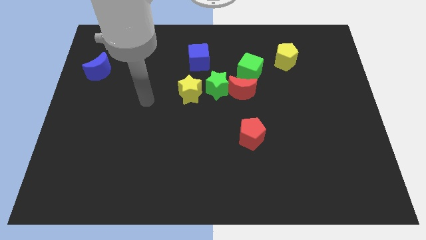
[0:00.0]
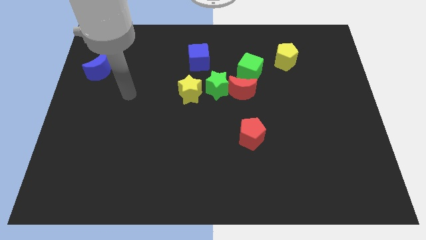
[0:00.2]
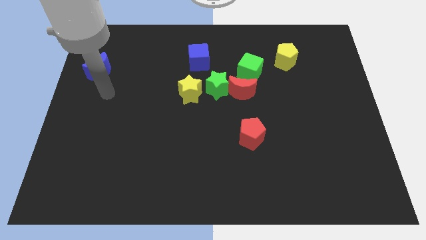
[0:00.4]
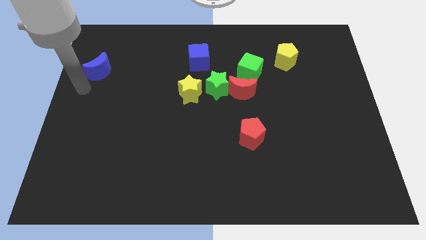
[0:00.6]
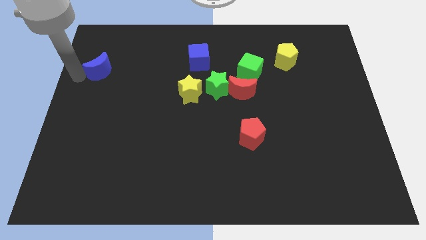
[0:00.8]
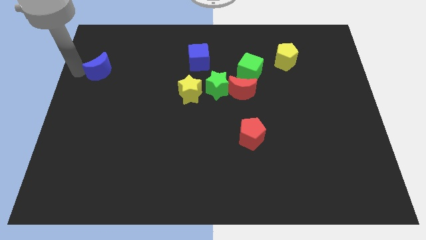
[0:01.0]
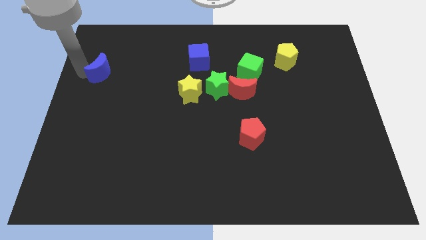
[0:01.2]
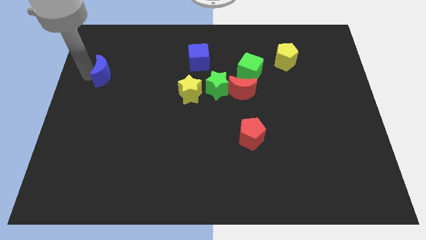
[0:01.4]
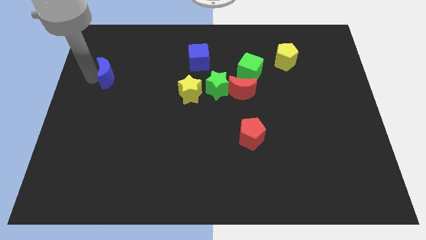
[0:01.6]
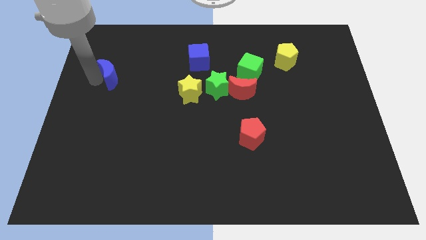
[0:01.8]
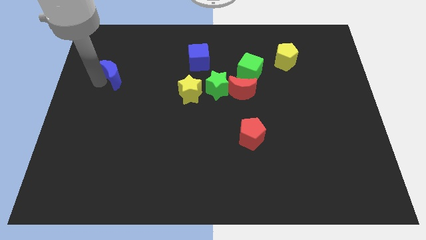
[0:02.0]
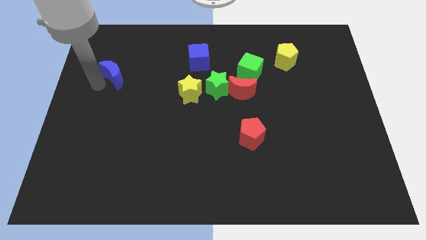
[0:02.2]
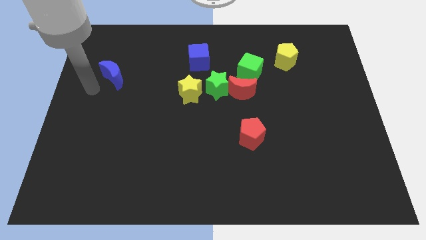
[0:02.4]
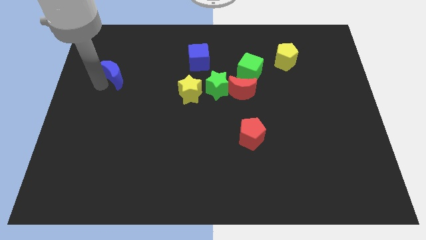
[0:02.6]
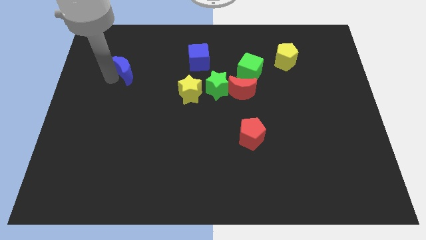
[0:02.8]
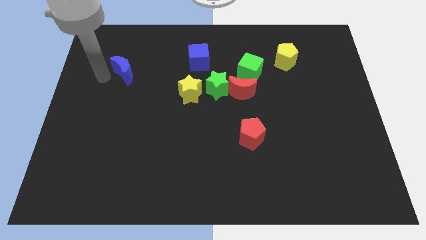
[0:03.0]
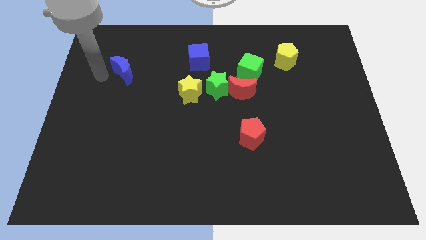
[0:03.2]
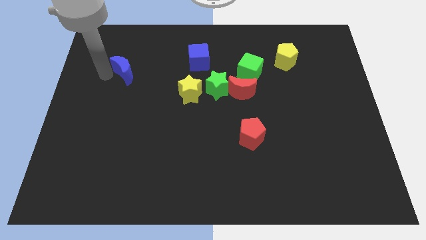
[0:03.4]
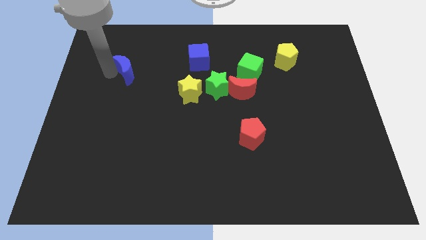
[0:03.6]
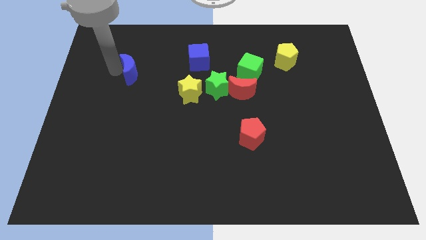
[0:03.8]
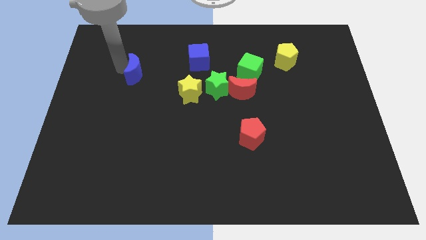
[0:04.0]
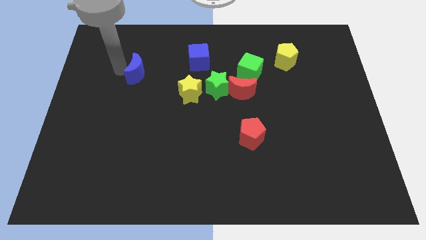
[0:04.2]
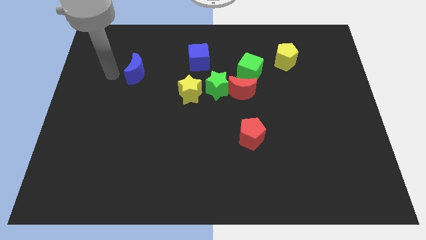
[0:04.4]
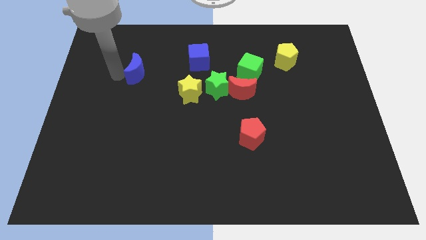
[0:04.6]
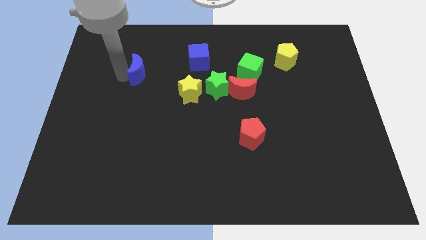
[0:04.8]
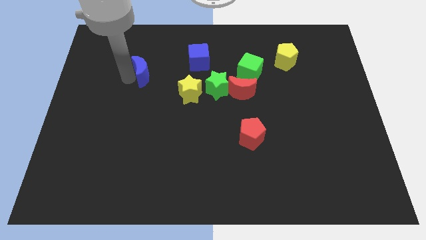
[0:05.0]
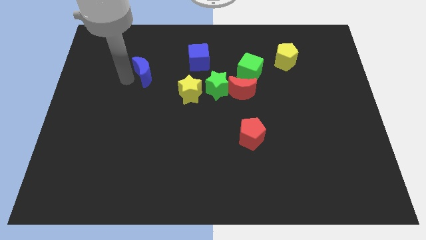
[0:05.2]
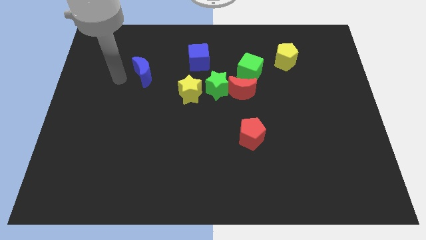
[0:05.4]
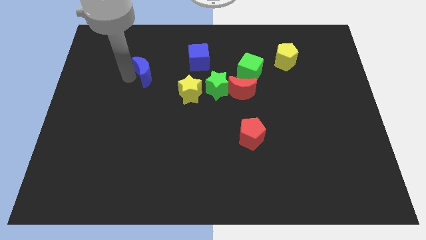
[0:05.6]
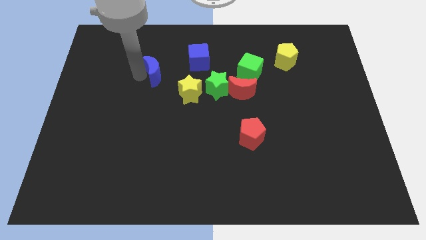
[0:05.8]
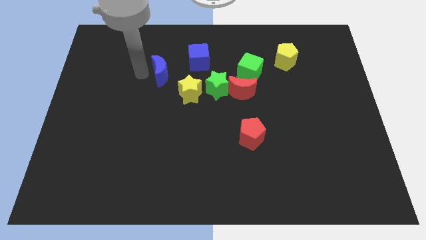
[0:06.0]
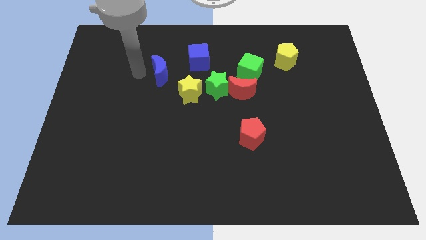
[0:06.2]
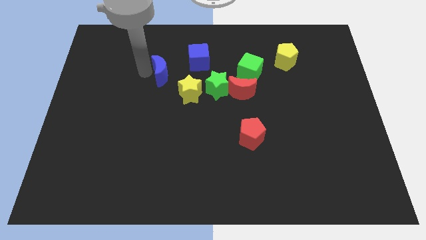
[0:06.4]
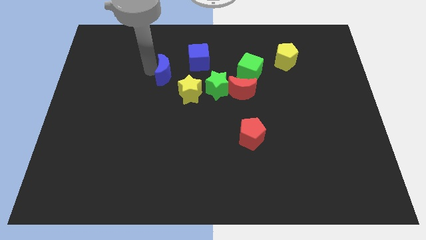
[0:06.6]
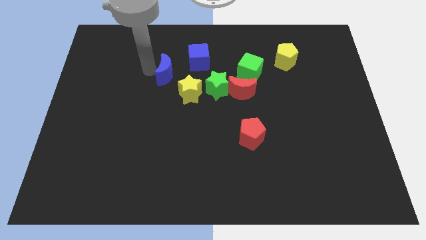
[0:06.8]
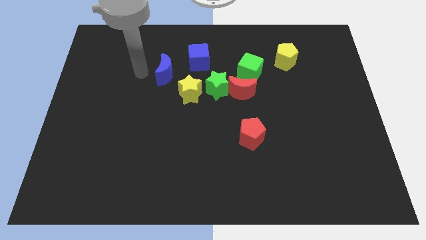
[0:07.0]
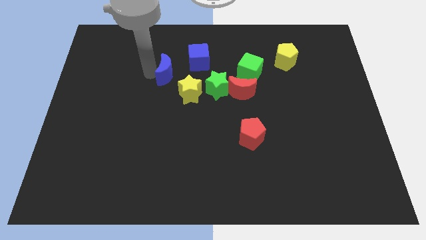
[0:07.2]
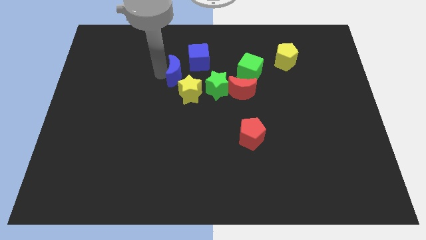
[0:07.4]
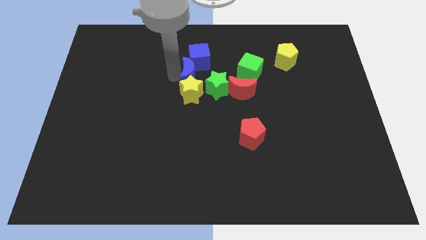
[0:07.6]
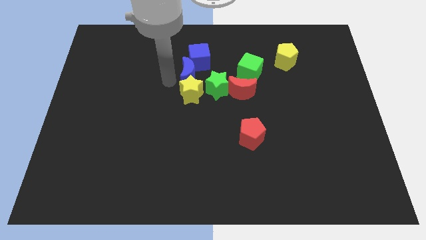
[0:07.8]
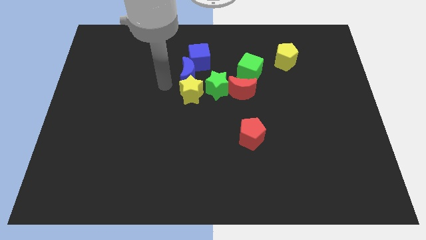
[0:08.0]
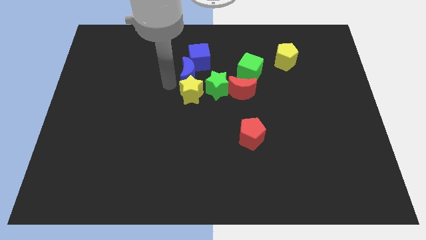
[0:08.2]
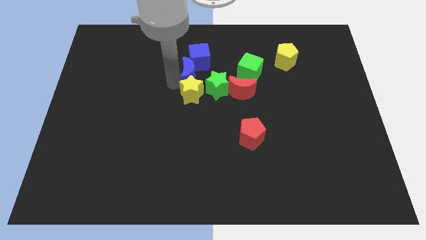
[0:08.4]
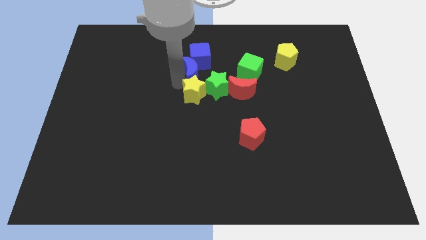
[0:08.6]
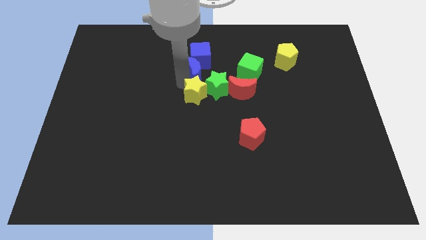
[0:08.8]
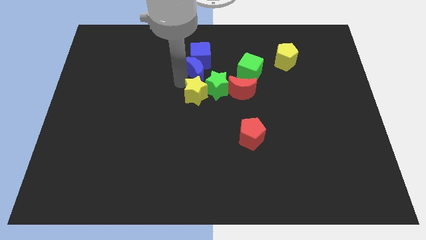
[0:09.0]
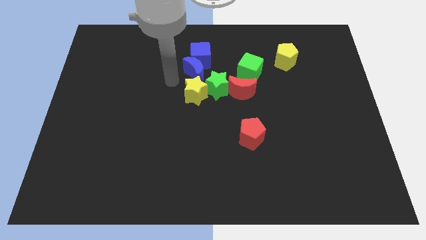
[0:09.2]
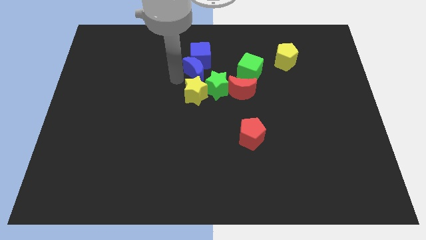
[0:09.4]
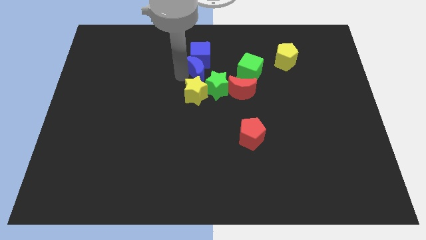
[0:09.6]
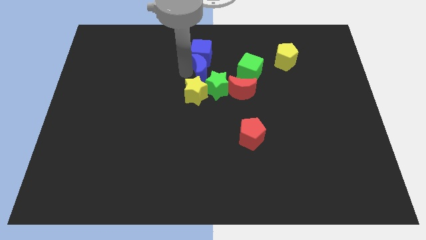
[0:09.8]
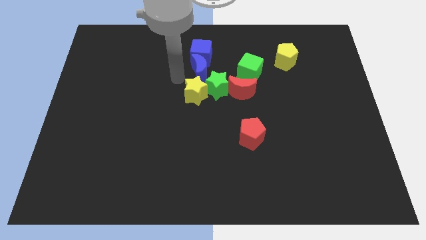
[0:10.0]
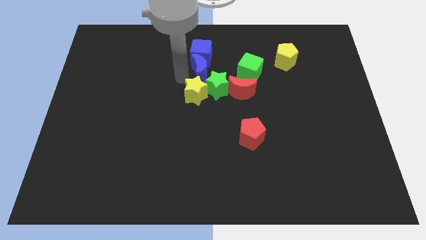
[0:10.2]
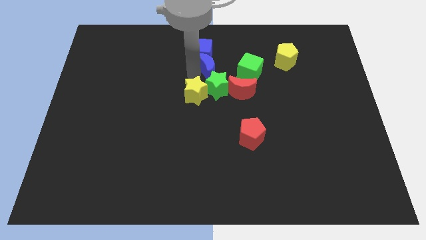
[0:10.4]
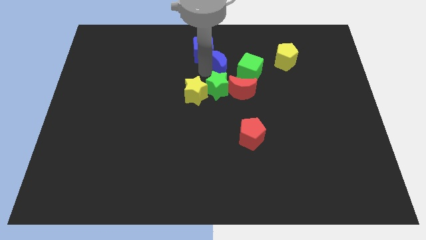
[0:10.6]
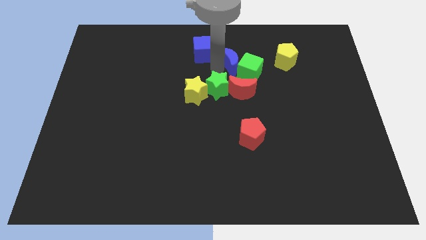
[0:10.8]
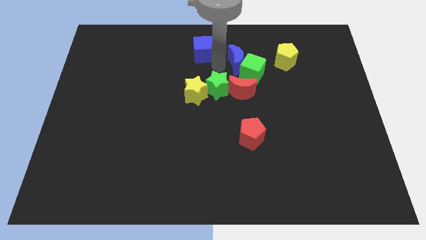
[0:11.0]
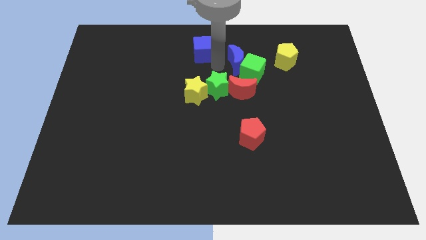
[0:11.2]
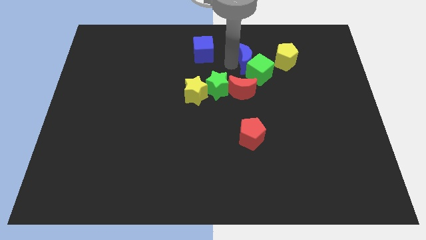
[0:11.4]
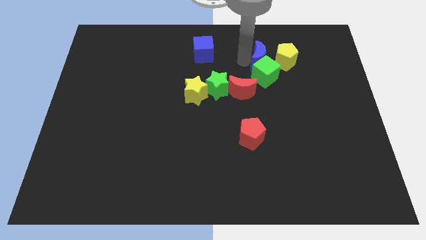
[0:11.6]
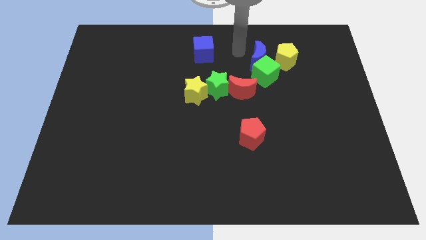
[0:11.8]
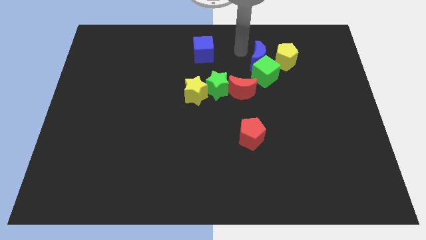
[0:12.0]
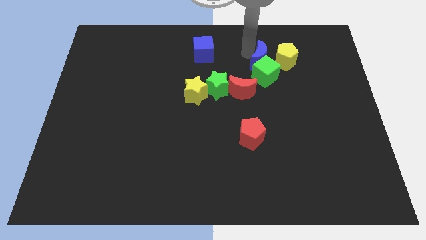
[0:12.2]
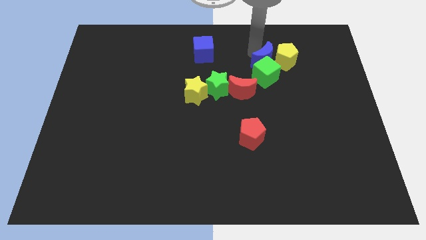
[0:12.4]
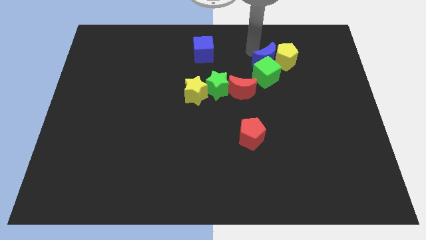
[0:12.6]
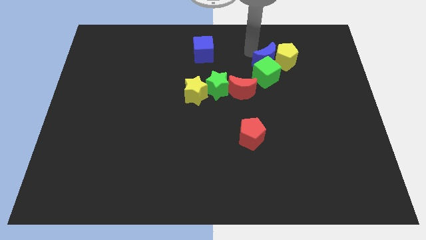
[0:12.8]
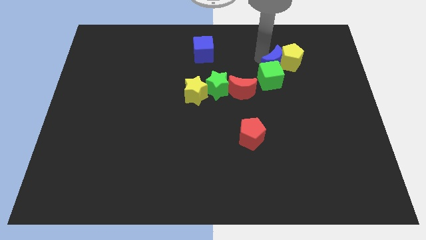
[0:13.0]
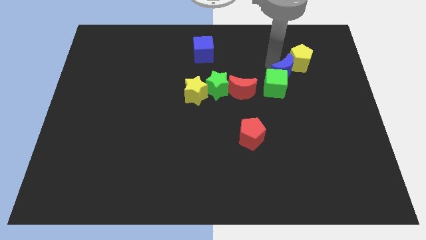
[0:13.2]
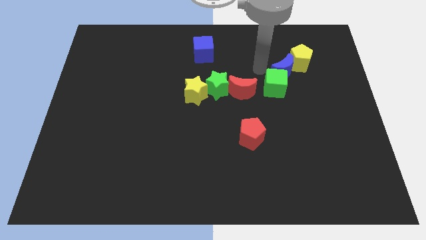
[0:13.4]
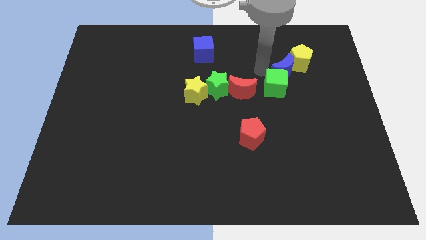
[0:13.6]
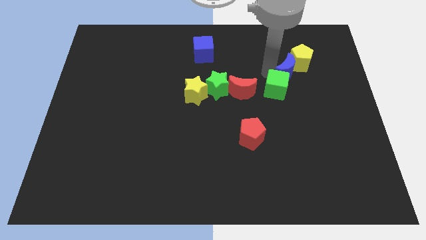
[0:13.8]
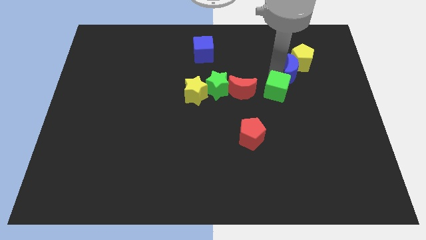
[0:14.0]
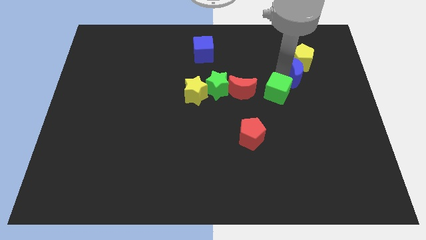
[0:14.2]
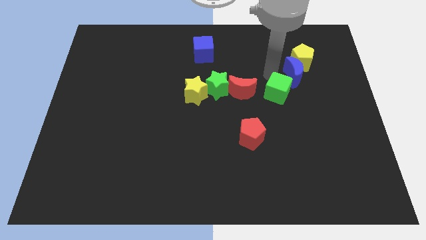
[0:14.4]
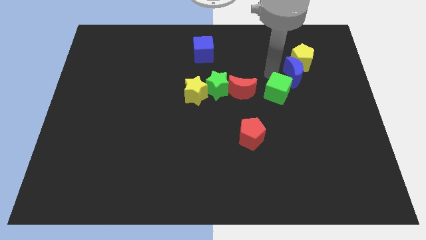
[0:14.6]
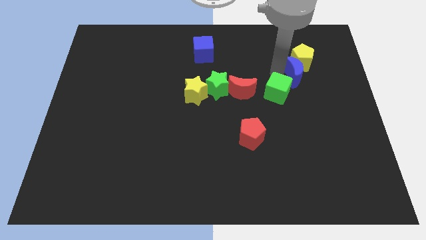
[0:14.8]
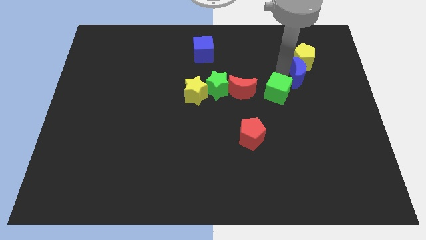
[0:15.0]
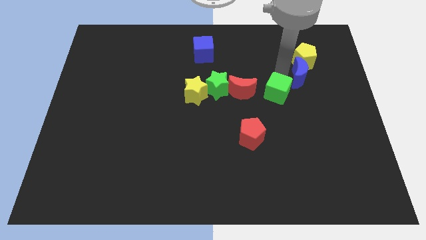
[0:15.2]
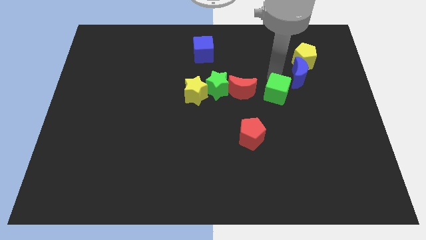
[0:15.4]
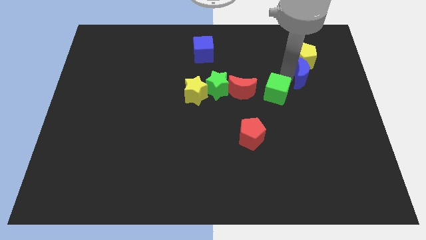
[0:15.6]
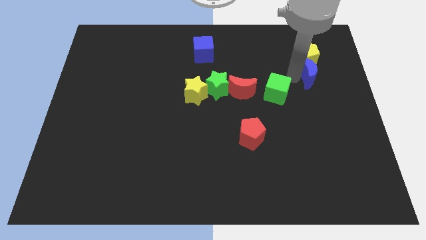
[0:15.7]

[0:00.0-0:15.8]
put the blue moon to the bottom right of the yellow pentagon
